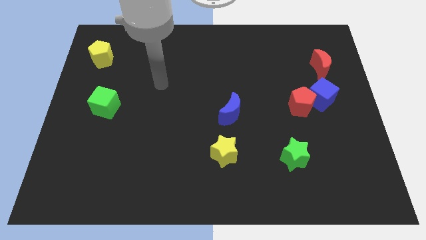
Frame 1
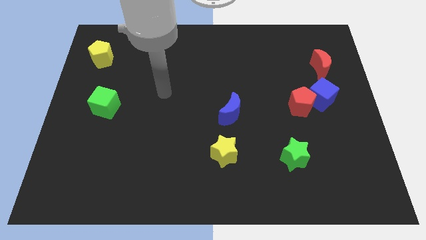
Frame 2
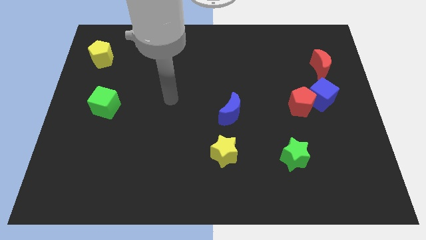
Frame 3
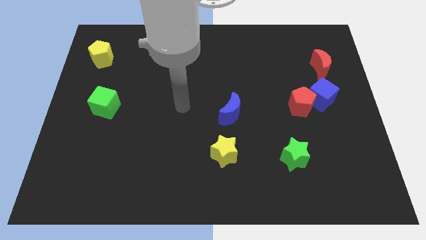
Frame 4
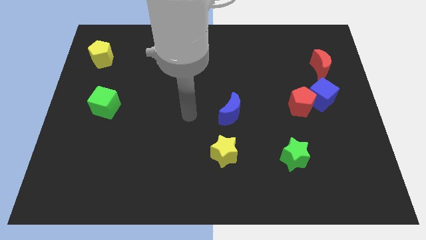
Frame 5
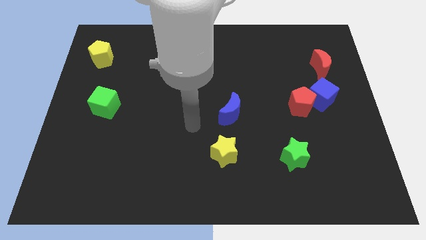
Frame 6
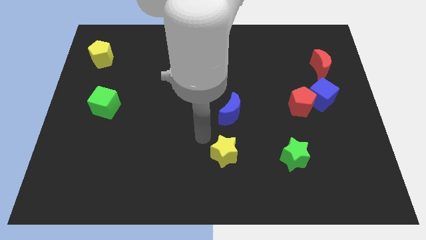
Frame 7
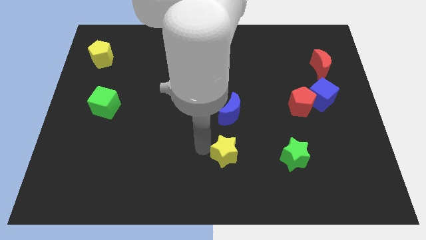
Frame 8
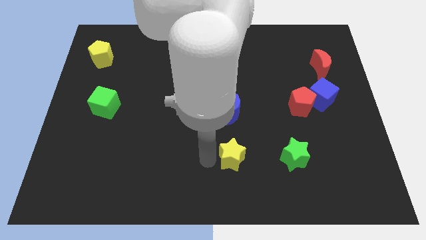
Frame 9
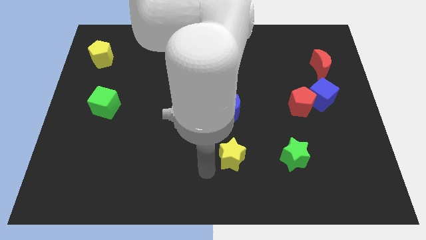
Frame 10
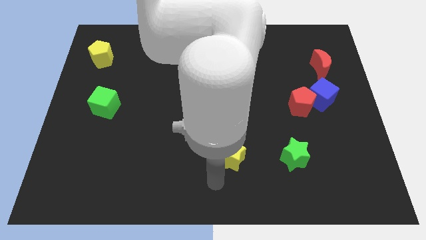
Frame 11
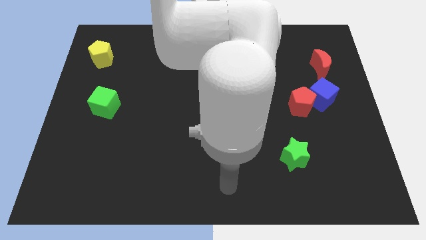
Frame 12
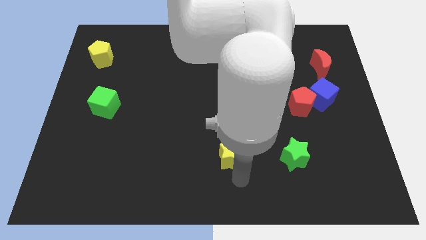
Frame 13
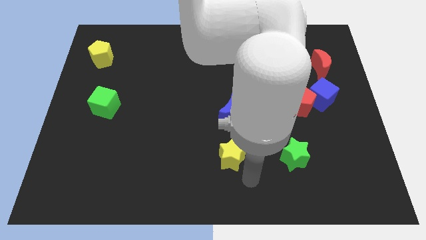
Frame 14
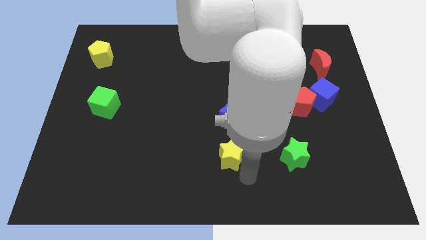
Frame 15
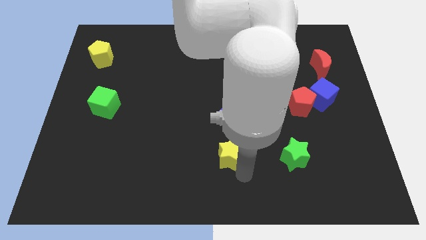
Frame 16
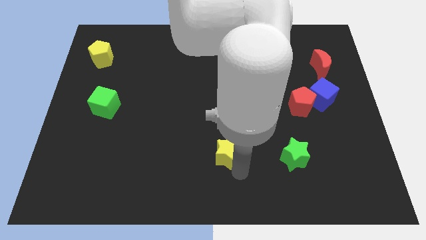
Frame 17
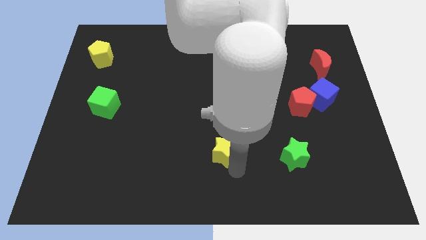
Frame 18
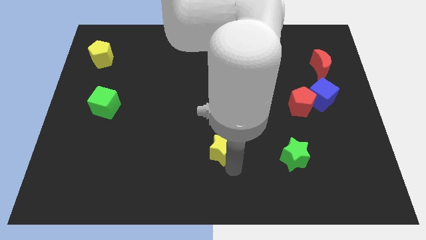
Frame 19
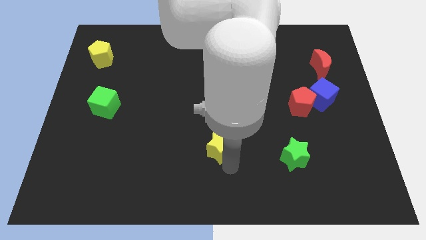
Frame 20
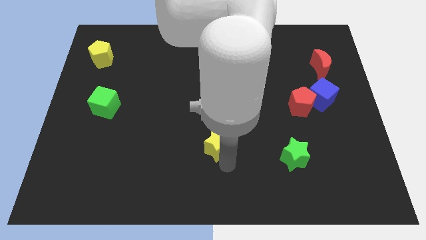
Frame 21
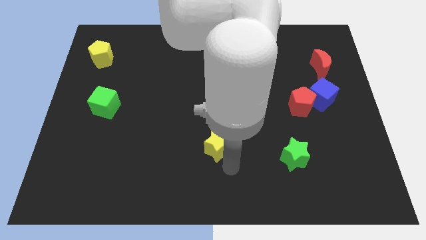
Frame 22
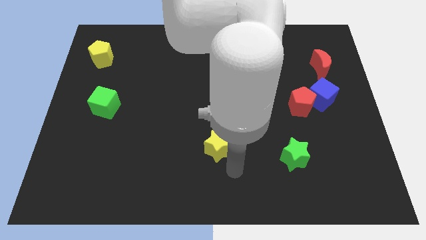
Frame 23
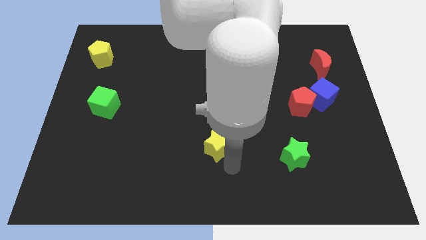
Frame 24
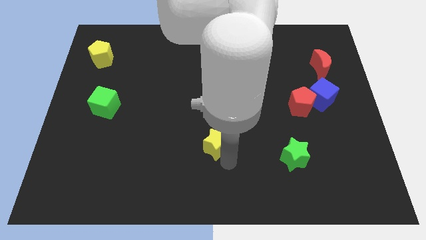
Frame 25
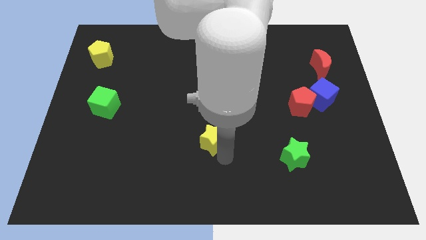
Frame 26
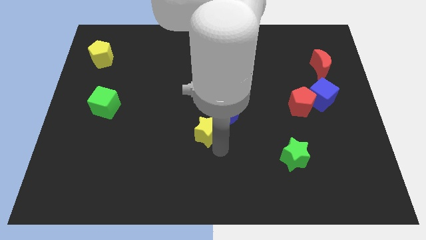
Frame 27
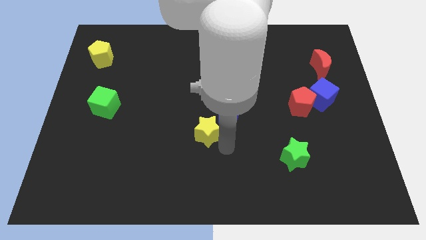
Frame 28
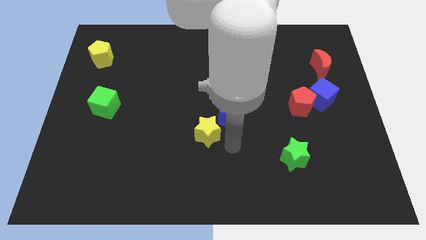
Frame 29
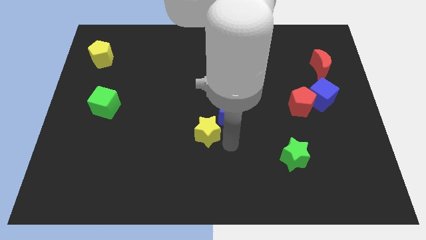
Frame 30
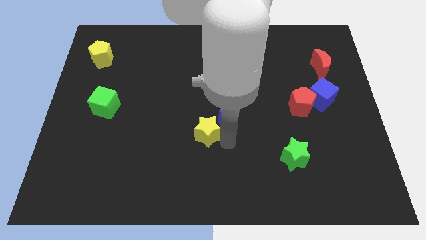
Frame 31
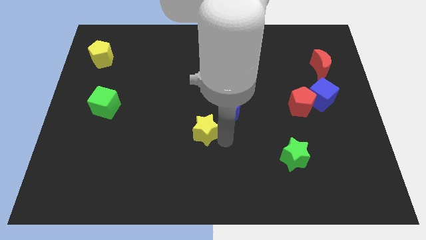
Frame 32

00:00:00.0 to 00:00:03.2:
slightly push the yellow star up and left diagonally

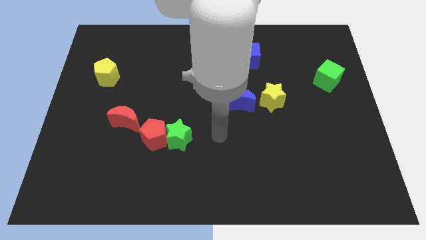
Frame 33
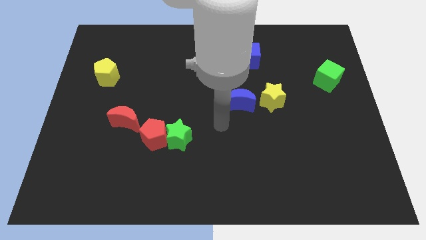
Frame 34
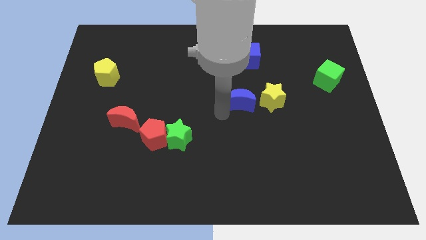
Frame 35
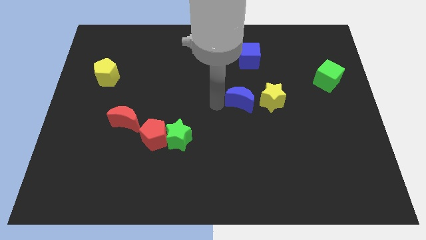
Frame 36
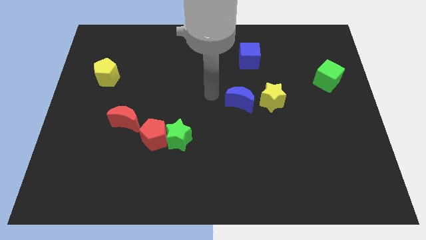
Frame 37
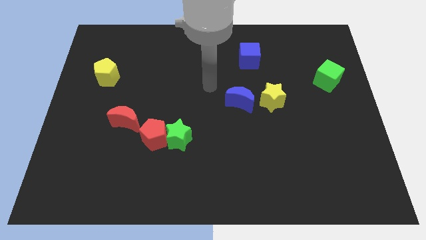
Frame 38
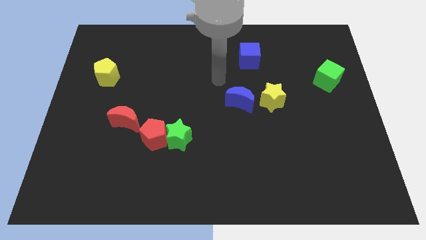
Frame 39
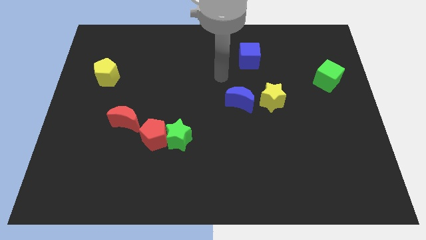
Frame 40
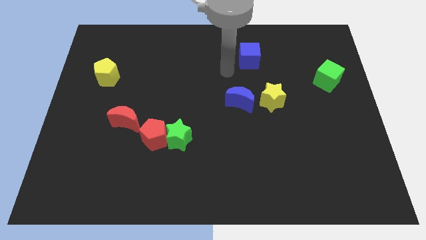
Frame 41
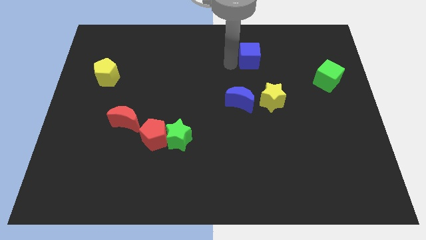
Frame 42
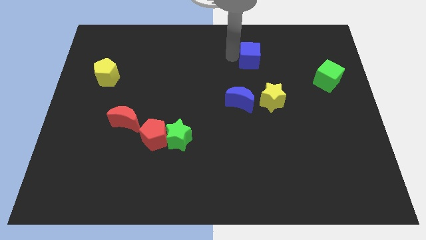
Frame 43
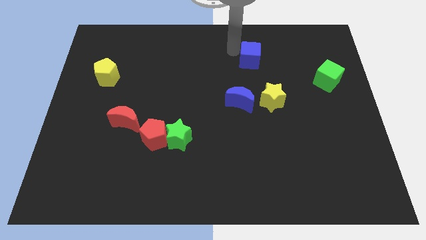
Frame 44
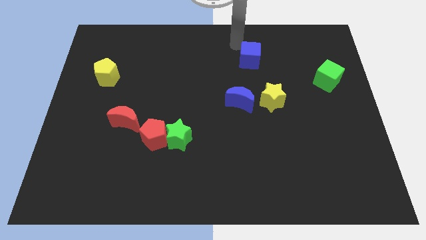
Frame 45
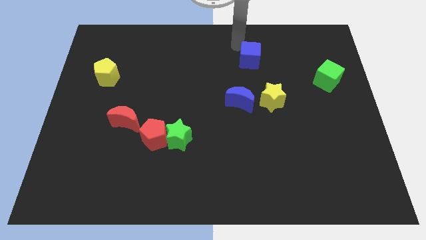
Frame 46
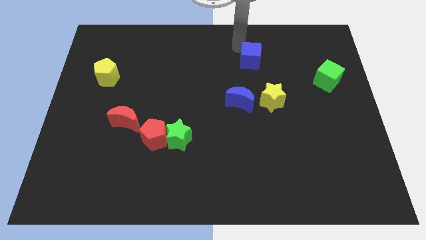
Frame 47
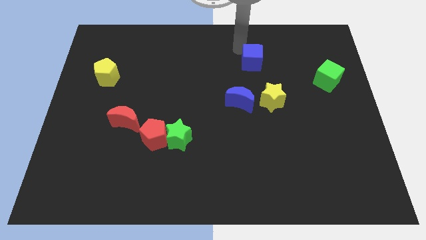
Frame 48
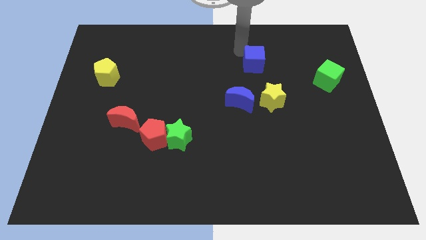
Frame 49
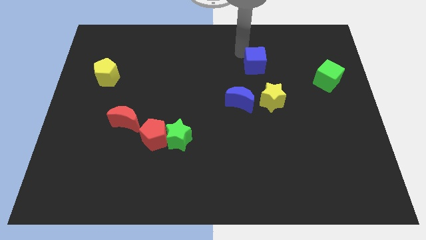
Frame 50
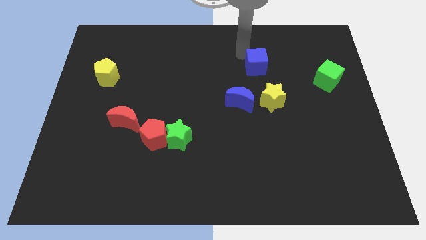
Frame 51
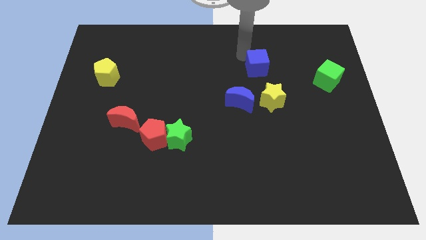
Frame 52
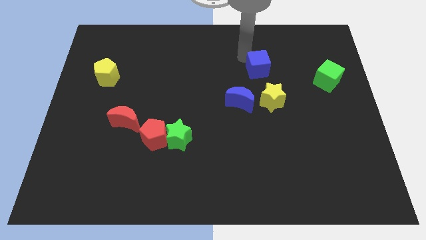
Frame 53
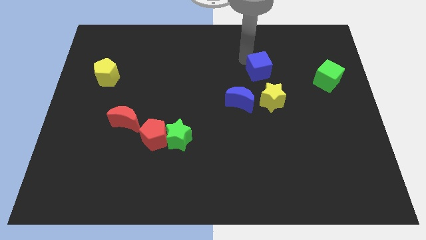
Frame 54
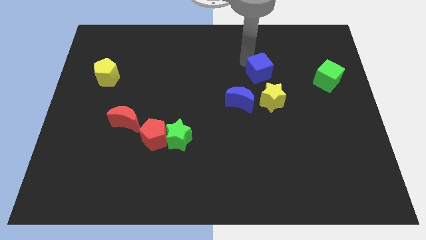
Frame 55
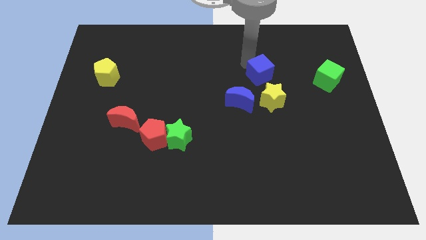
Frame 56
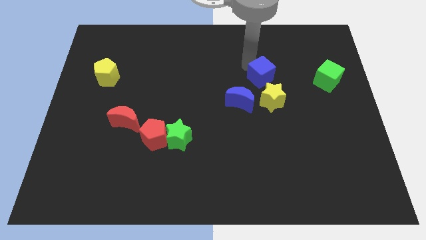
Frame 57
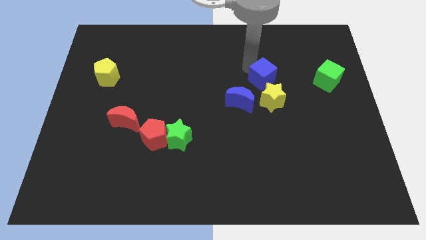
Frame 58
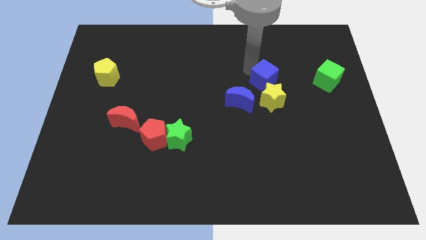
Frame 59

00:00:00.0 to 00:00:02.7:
slightly push the blue cube downwards and to the right

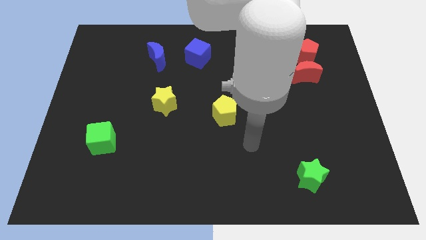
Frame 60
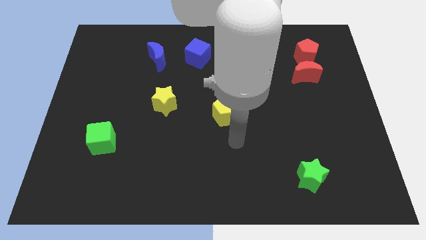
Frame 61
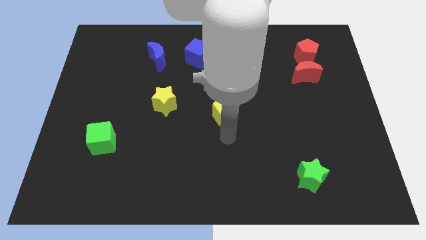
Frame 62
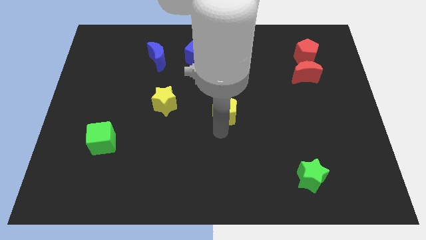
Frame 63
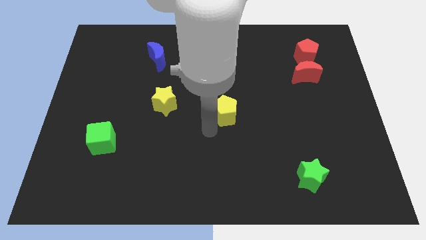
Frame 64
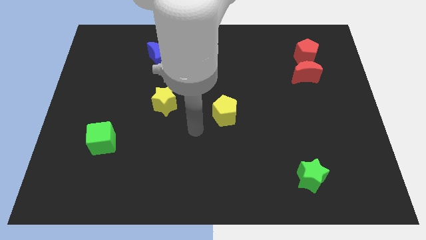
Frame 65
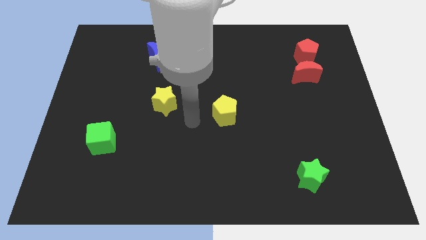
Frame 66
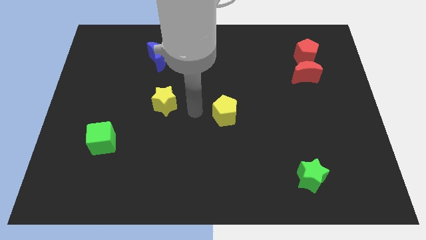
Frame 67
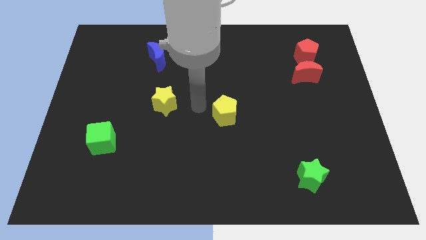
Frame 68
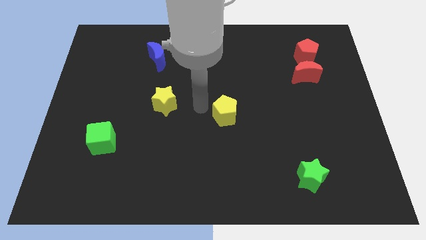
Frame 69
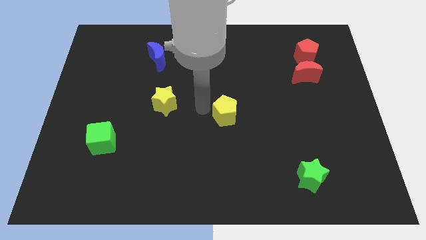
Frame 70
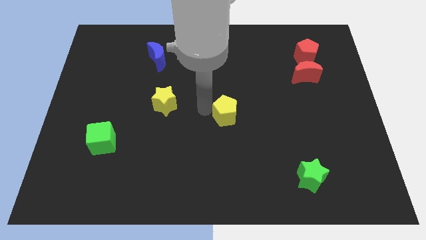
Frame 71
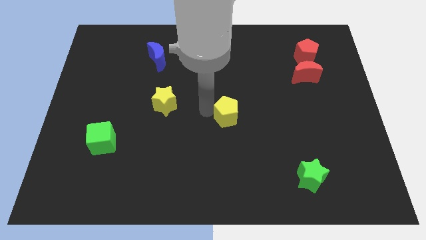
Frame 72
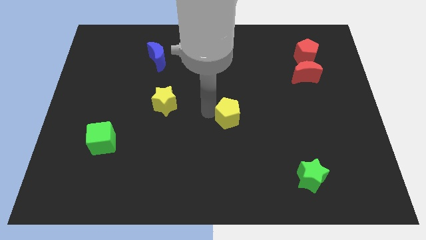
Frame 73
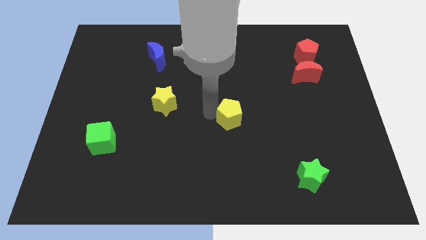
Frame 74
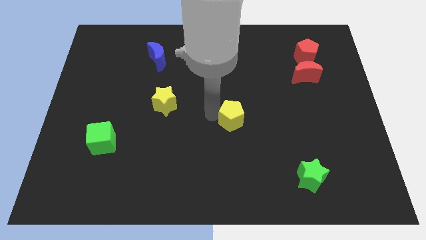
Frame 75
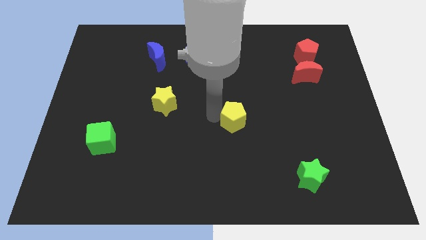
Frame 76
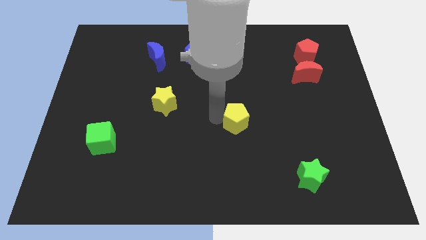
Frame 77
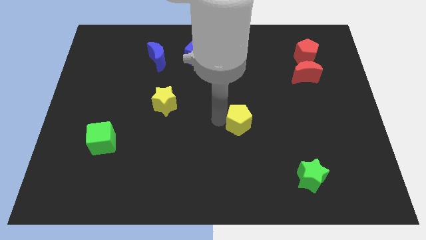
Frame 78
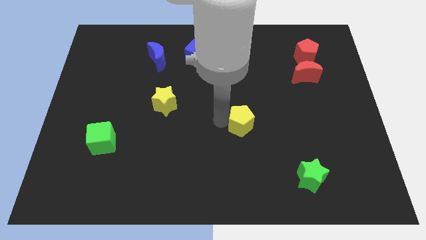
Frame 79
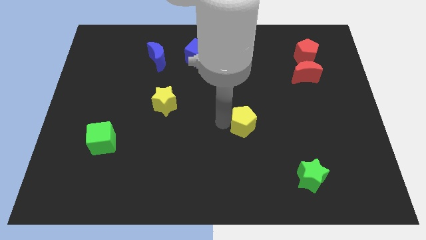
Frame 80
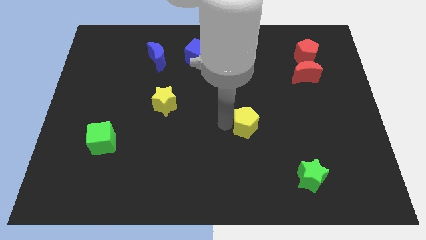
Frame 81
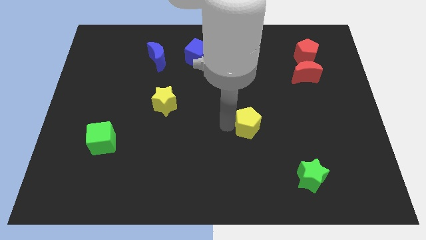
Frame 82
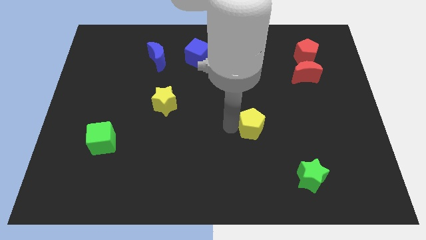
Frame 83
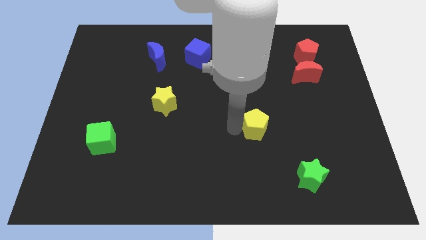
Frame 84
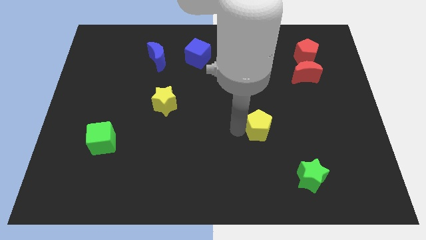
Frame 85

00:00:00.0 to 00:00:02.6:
slightly move the yellow pentagon right

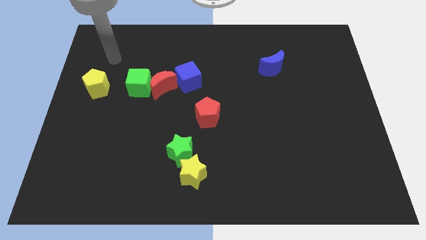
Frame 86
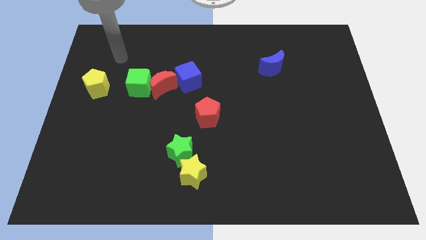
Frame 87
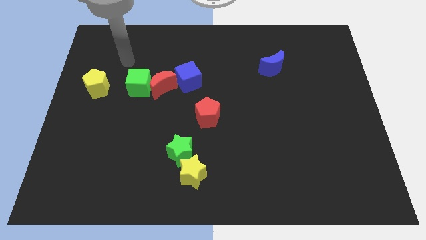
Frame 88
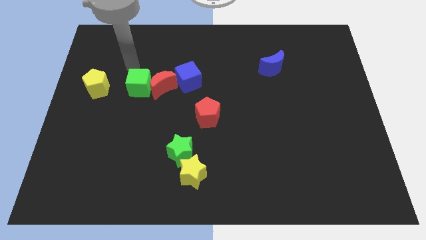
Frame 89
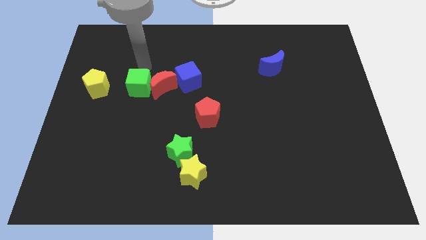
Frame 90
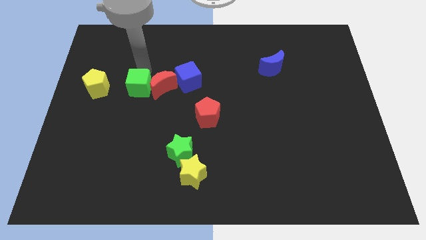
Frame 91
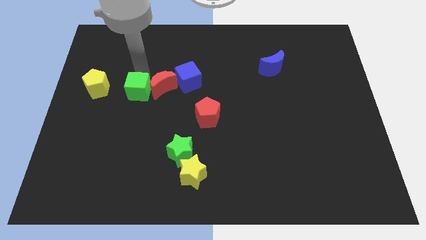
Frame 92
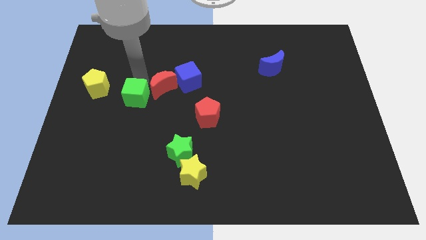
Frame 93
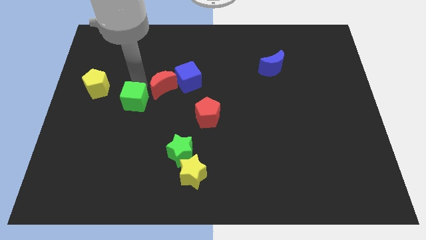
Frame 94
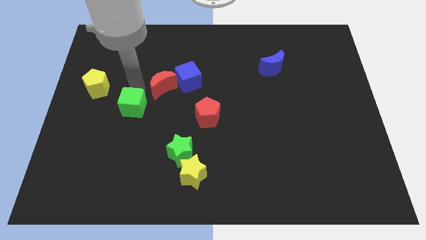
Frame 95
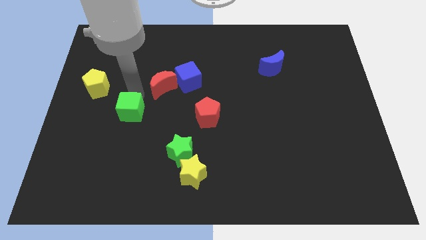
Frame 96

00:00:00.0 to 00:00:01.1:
slide the green cube somewhat downwards
